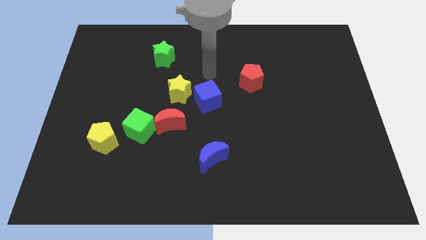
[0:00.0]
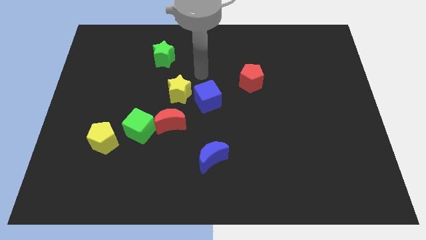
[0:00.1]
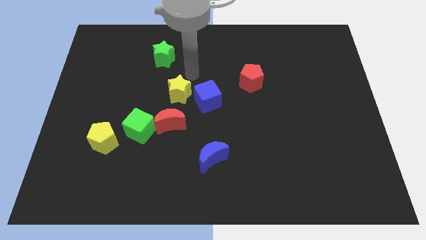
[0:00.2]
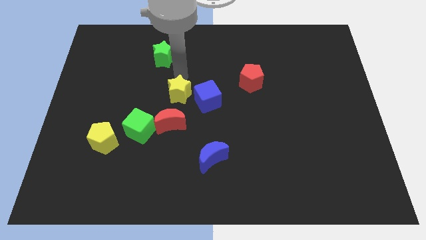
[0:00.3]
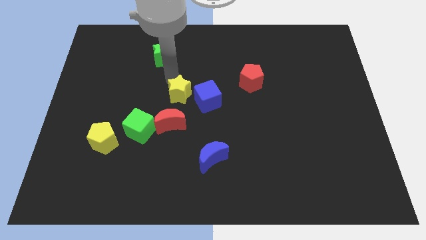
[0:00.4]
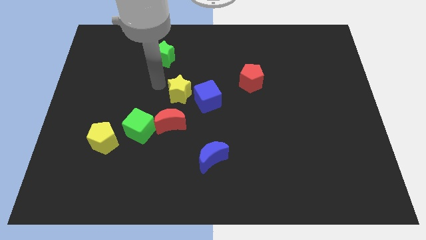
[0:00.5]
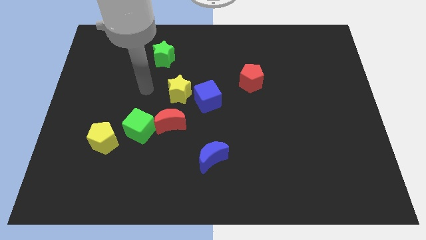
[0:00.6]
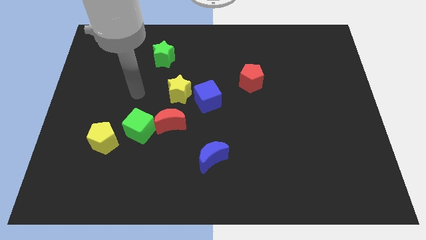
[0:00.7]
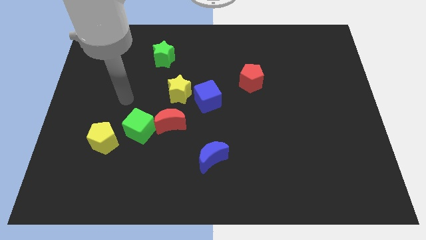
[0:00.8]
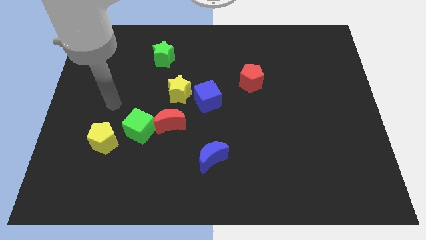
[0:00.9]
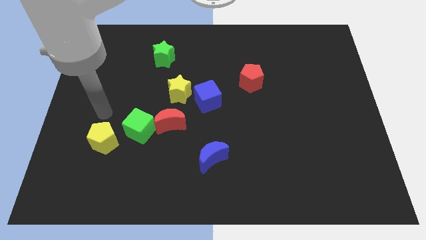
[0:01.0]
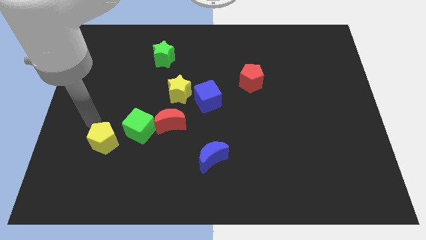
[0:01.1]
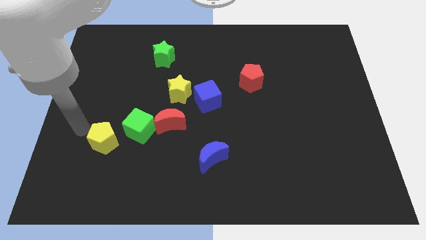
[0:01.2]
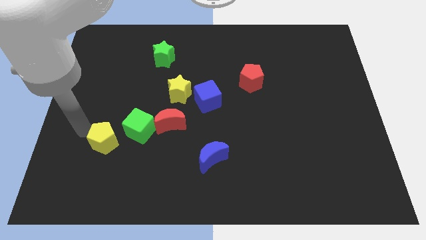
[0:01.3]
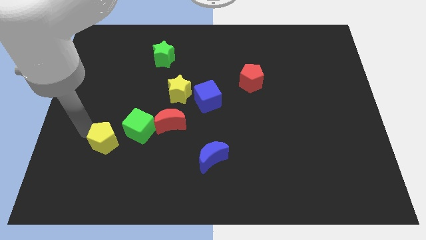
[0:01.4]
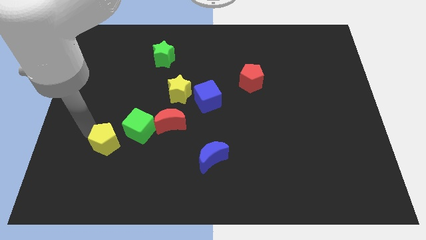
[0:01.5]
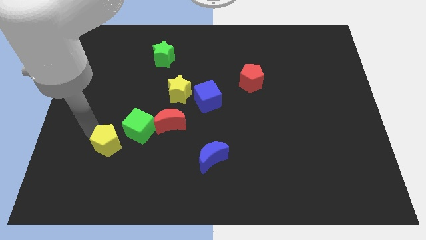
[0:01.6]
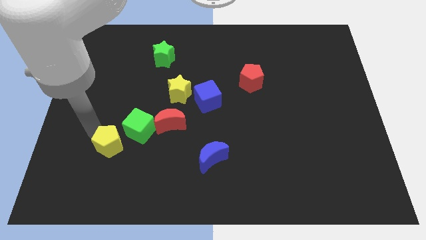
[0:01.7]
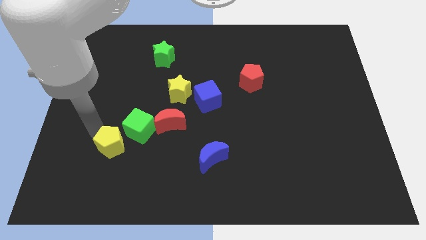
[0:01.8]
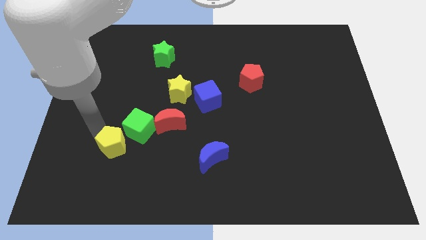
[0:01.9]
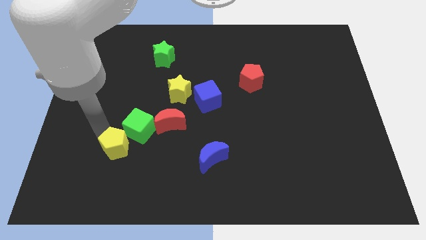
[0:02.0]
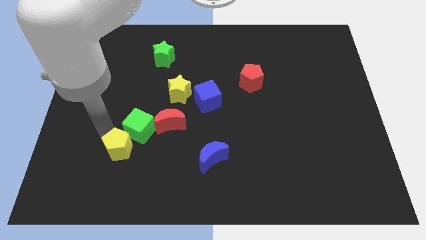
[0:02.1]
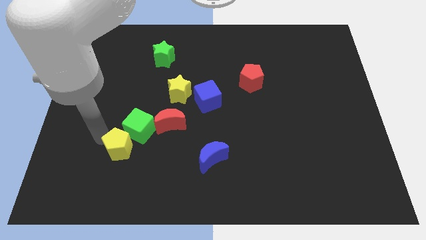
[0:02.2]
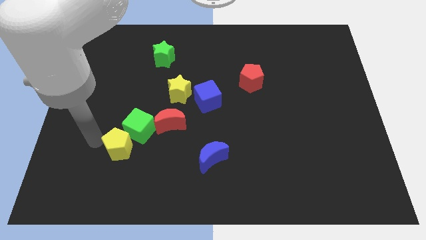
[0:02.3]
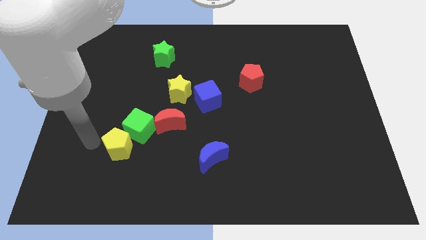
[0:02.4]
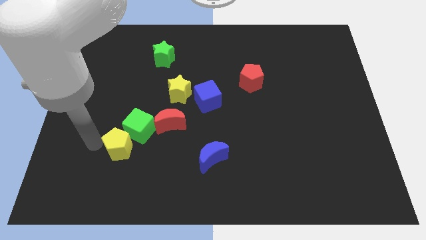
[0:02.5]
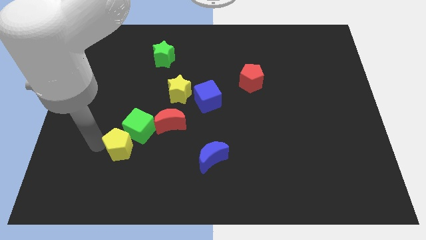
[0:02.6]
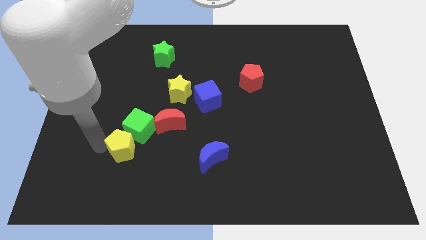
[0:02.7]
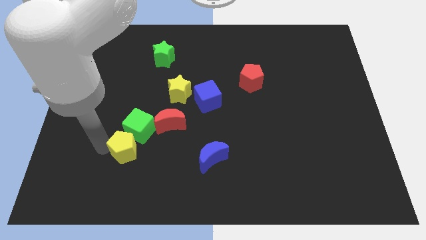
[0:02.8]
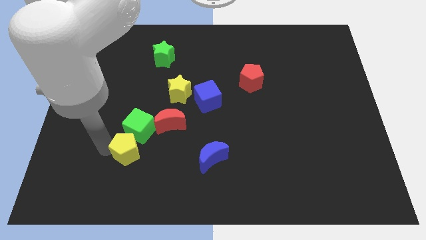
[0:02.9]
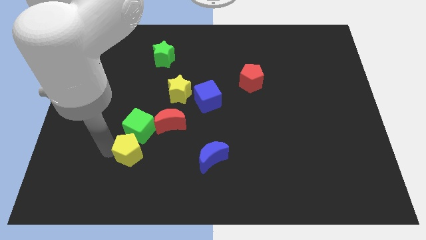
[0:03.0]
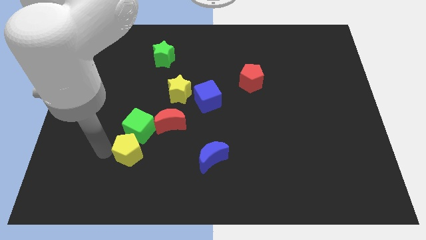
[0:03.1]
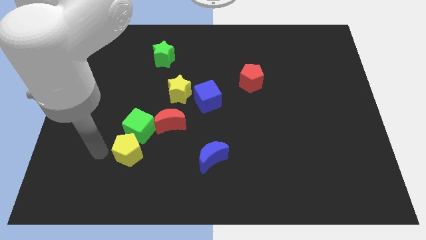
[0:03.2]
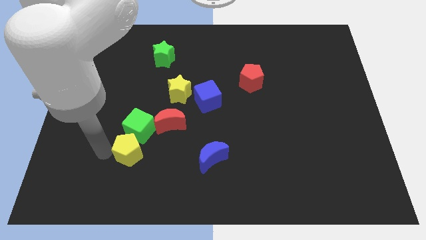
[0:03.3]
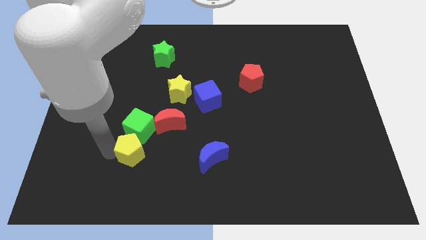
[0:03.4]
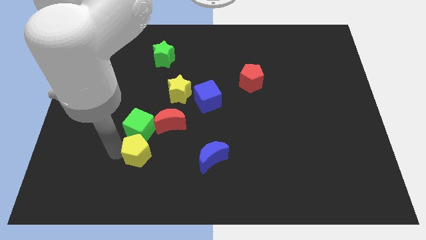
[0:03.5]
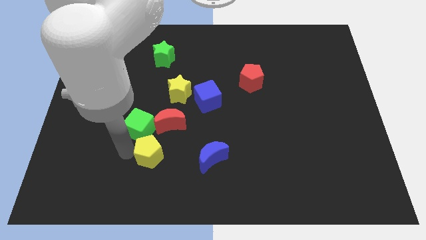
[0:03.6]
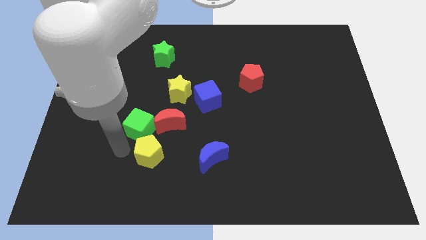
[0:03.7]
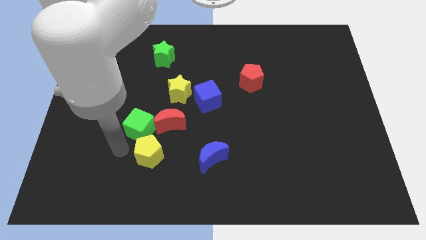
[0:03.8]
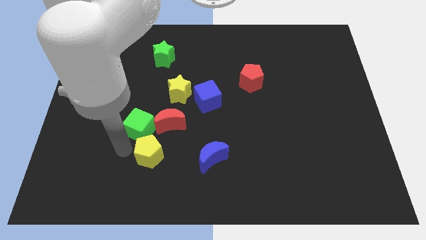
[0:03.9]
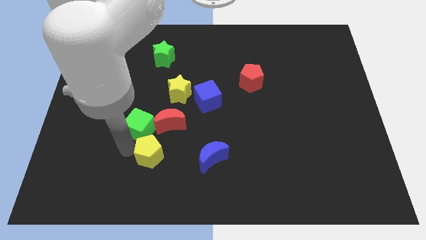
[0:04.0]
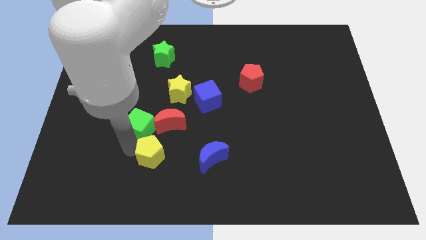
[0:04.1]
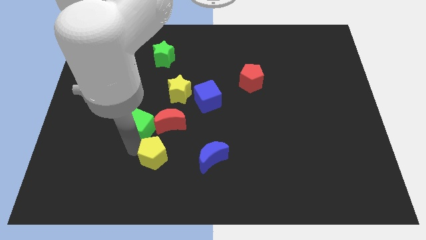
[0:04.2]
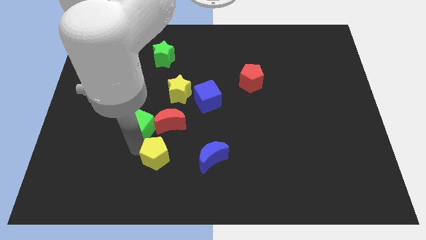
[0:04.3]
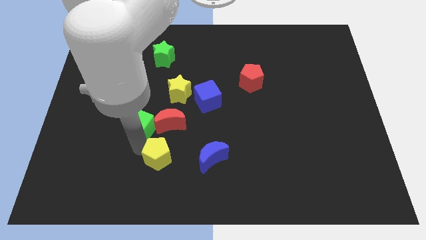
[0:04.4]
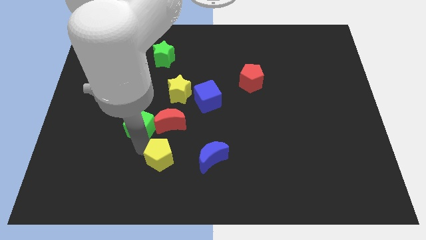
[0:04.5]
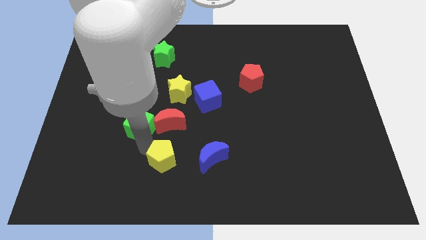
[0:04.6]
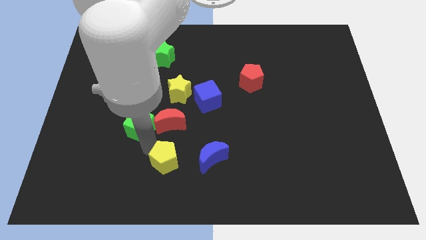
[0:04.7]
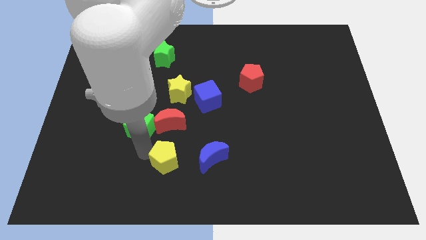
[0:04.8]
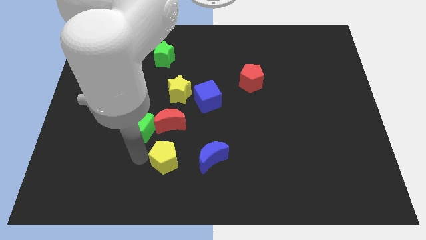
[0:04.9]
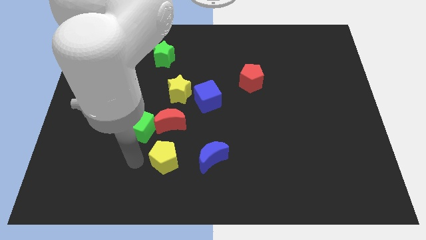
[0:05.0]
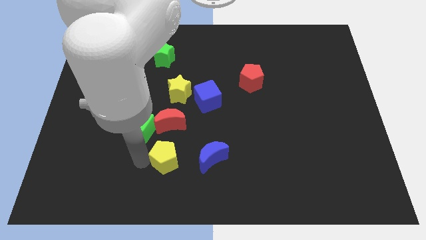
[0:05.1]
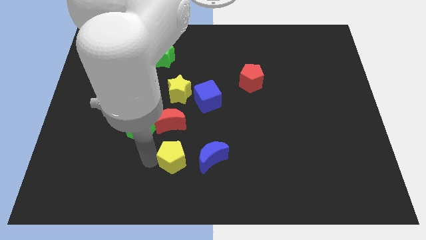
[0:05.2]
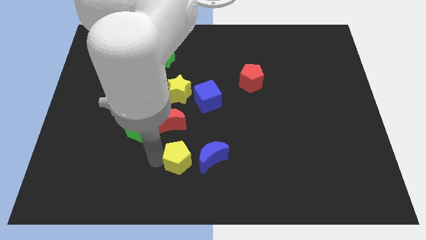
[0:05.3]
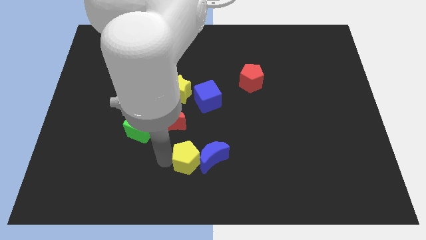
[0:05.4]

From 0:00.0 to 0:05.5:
slide the yellow pentagon towards the blue moon

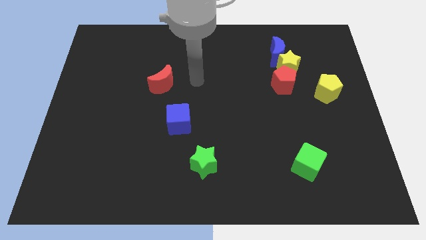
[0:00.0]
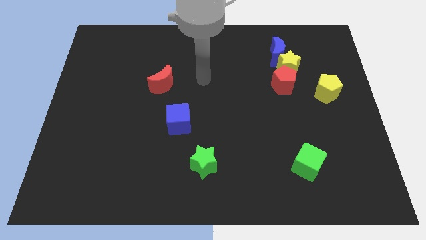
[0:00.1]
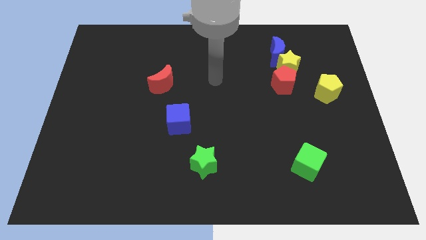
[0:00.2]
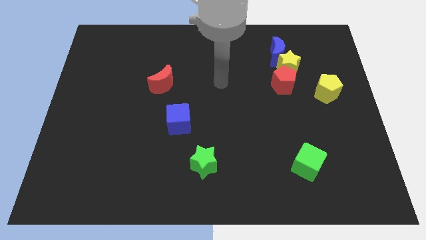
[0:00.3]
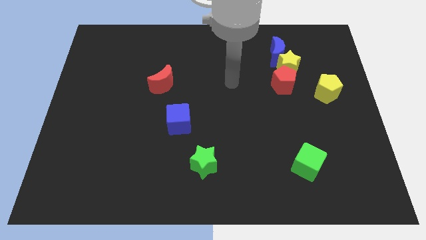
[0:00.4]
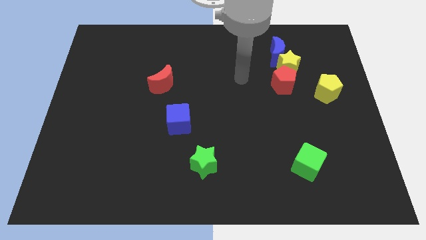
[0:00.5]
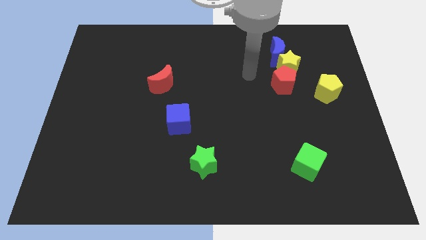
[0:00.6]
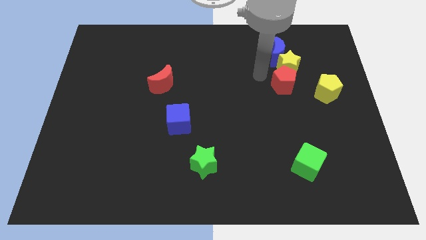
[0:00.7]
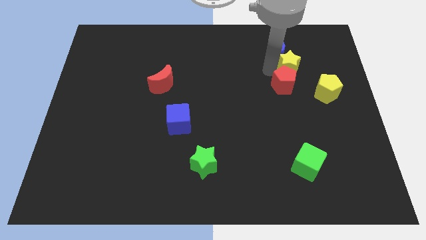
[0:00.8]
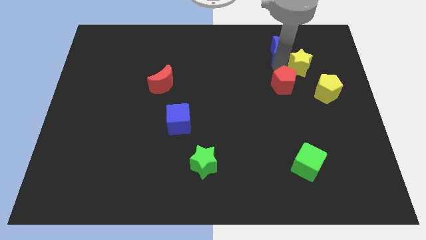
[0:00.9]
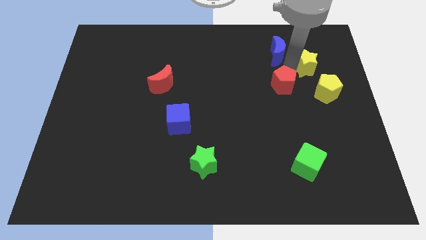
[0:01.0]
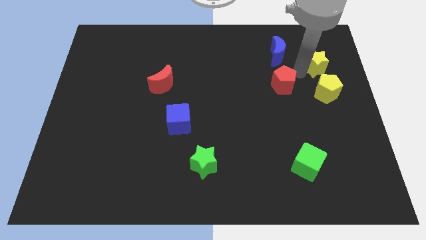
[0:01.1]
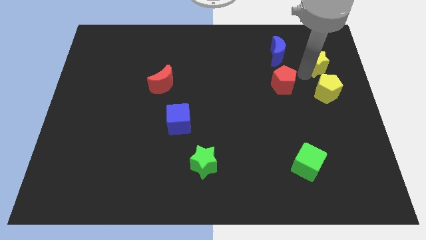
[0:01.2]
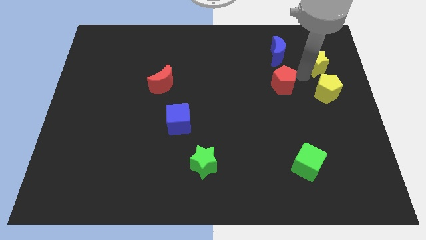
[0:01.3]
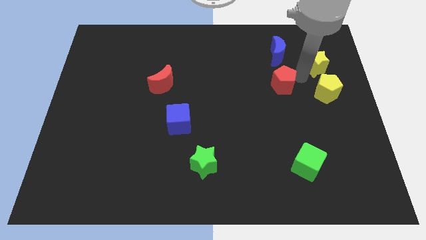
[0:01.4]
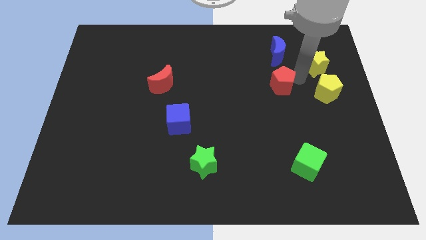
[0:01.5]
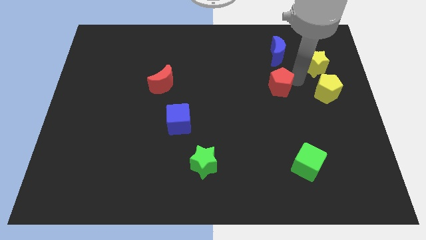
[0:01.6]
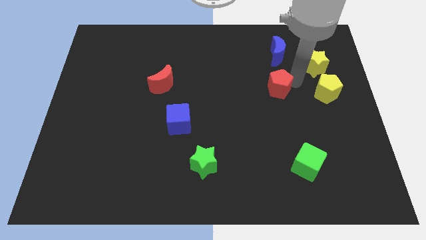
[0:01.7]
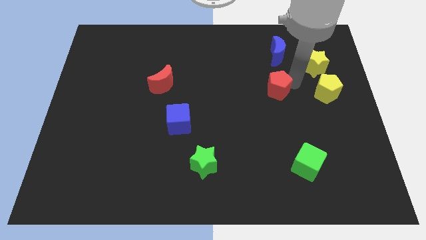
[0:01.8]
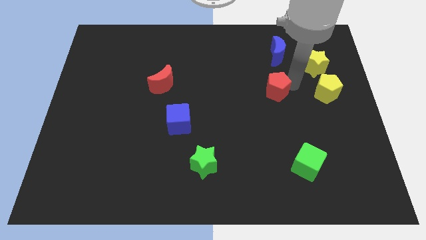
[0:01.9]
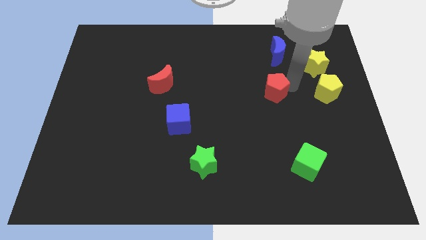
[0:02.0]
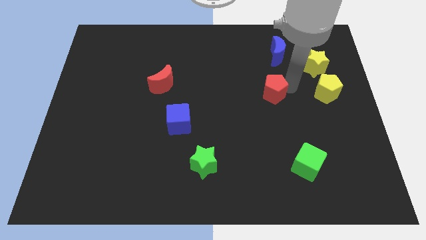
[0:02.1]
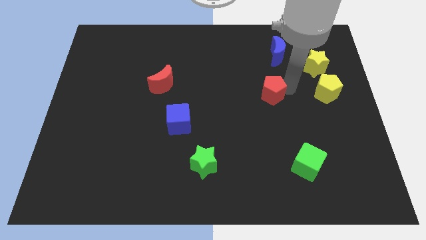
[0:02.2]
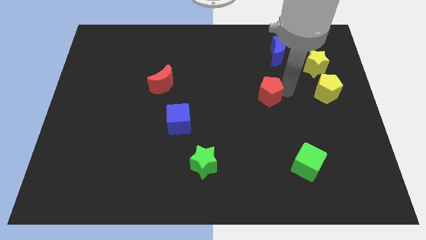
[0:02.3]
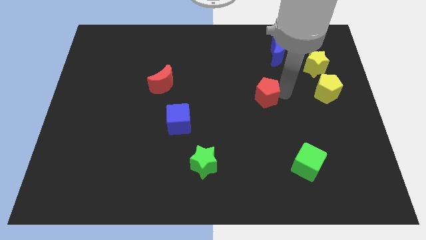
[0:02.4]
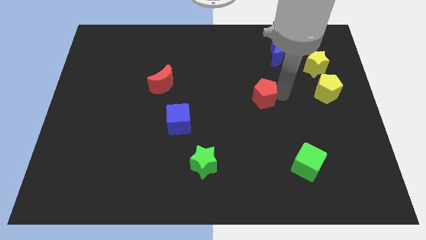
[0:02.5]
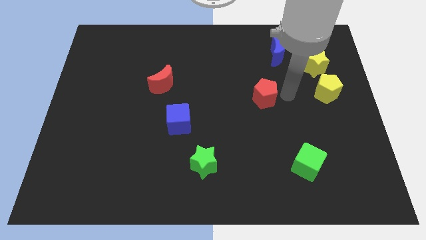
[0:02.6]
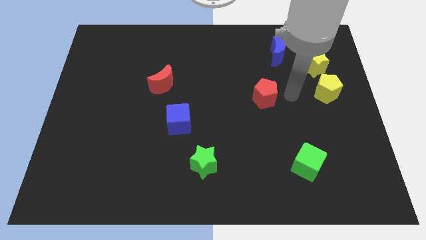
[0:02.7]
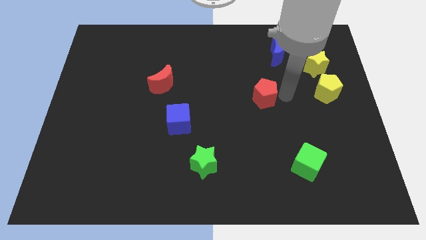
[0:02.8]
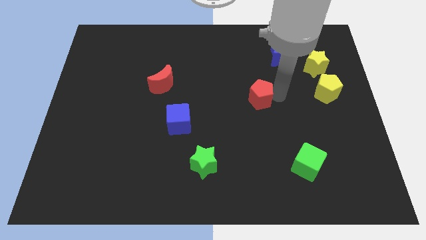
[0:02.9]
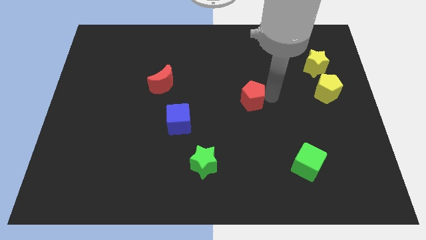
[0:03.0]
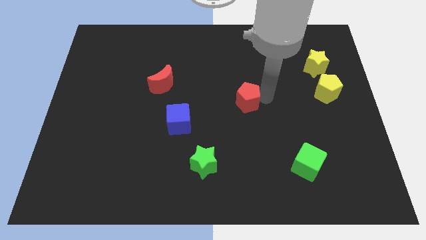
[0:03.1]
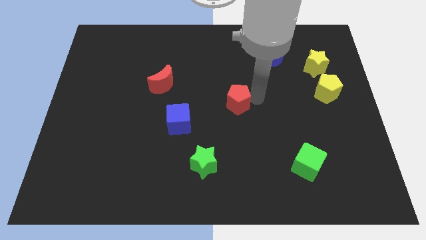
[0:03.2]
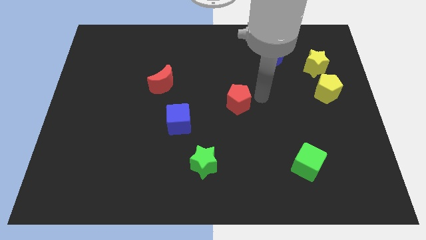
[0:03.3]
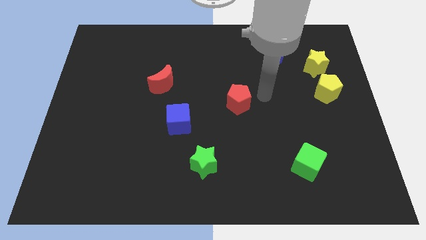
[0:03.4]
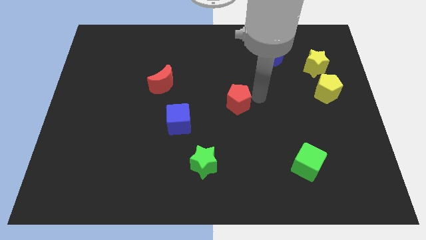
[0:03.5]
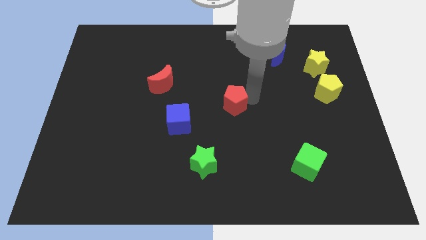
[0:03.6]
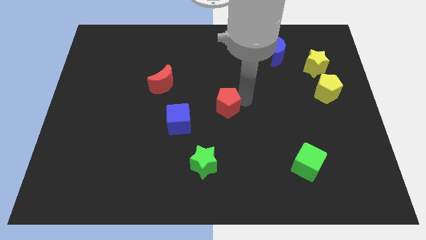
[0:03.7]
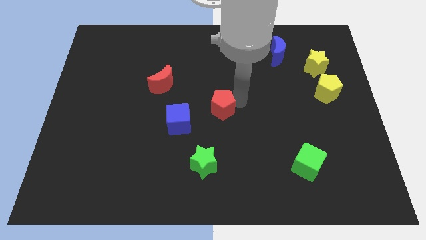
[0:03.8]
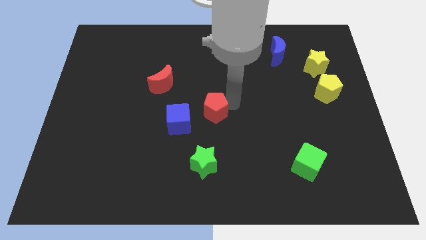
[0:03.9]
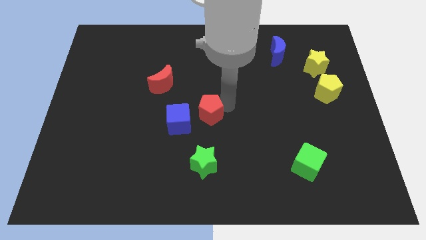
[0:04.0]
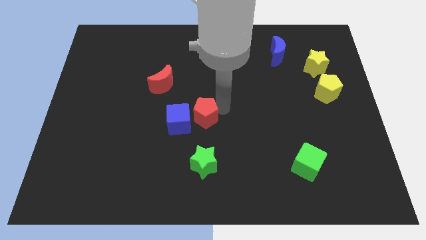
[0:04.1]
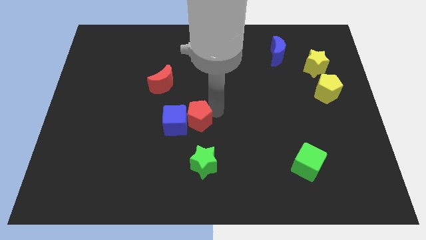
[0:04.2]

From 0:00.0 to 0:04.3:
put the red pentagon towards the blue cube
